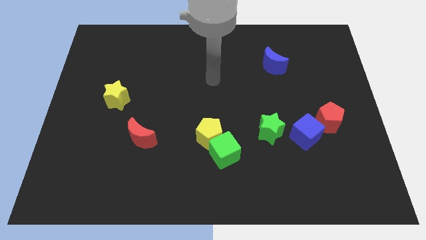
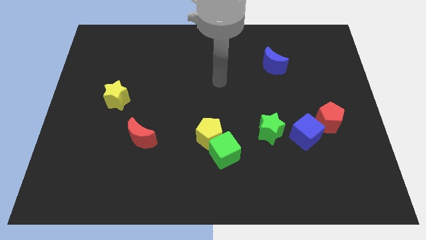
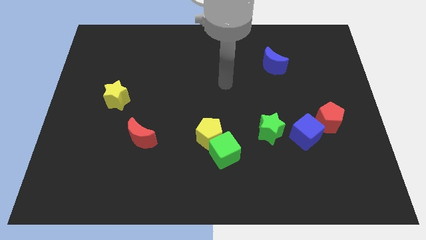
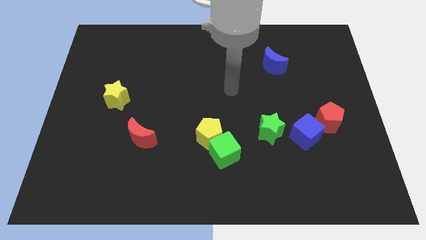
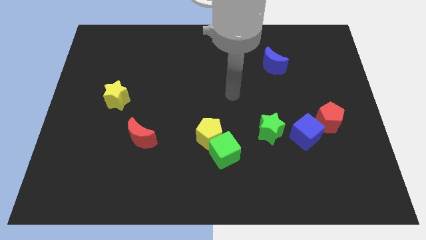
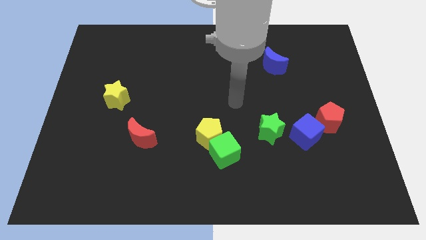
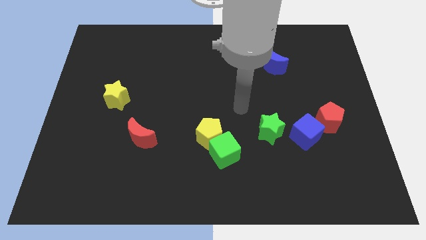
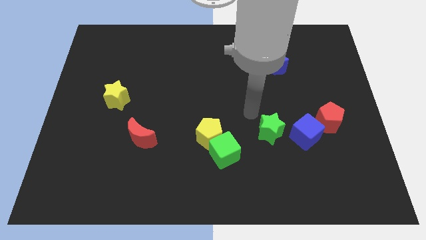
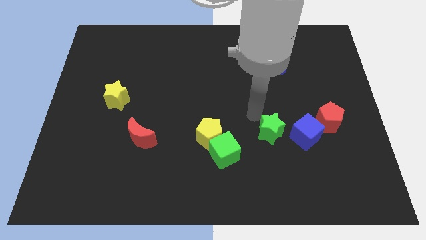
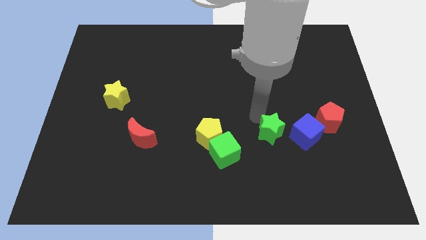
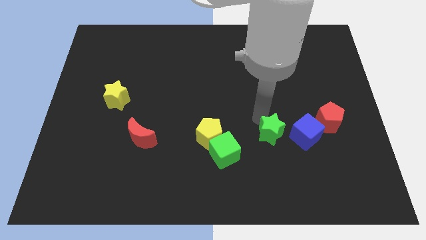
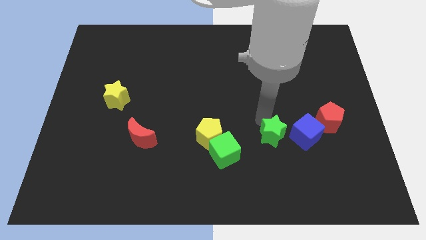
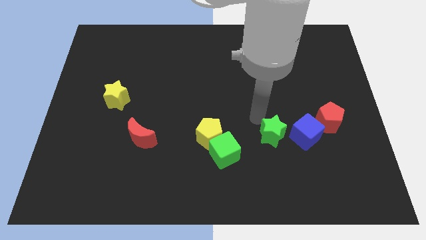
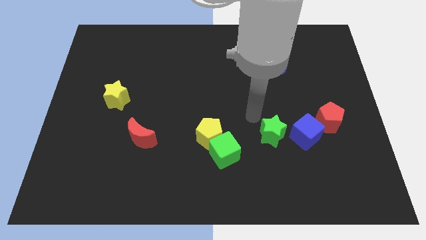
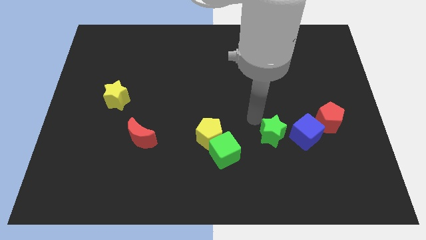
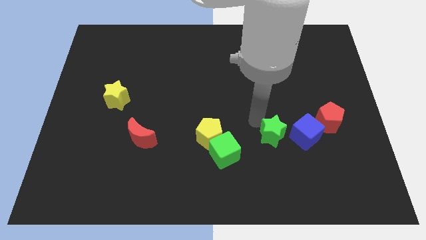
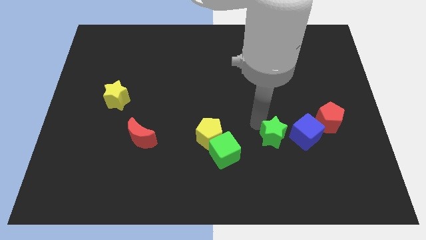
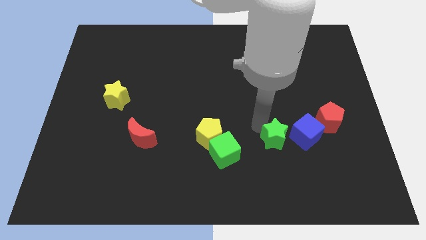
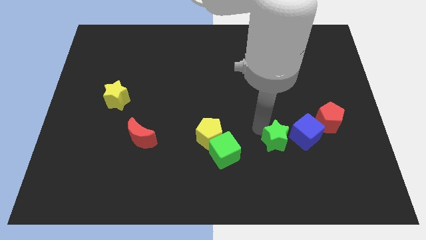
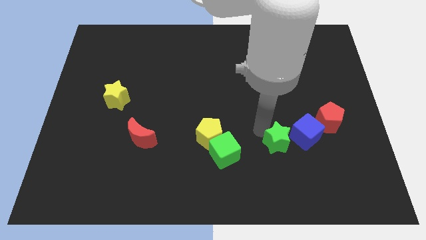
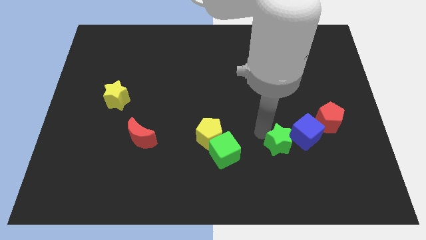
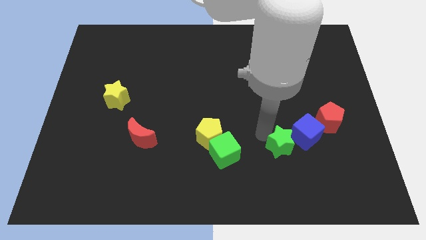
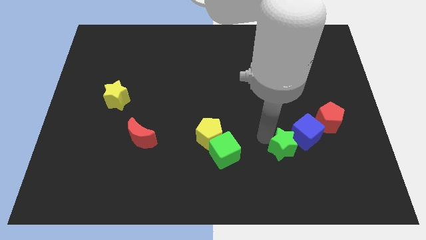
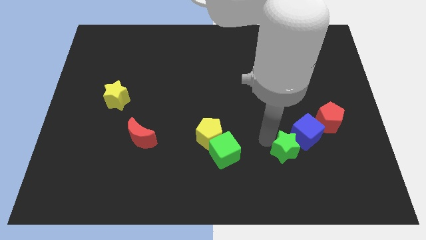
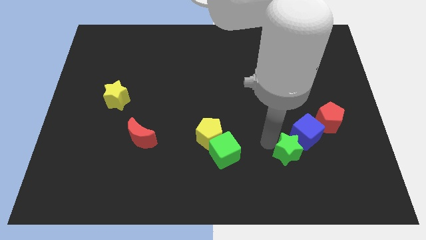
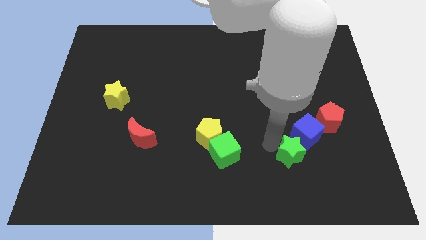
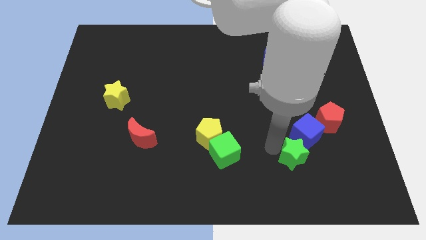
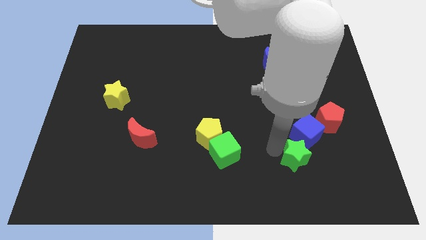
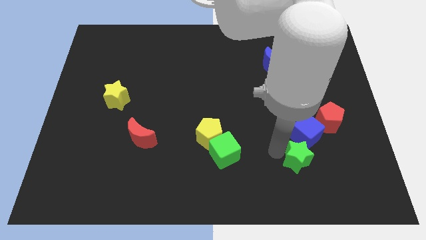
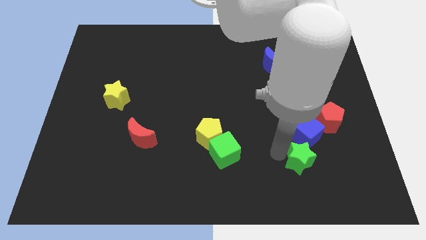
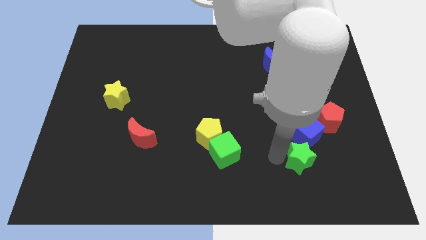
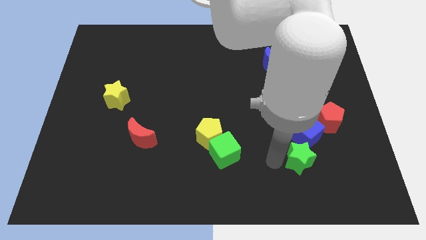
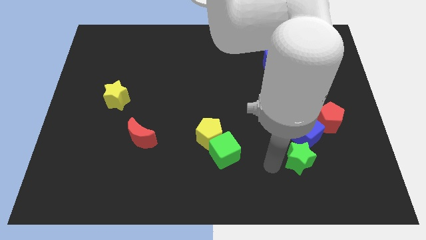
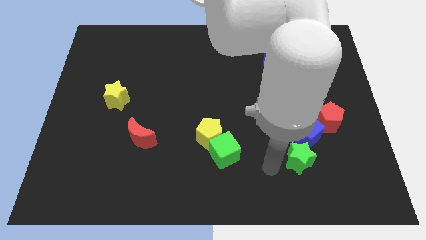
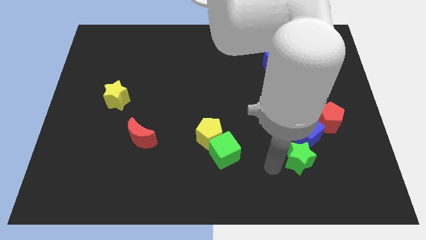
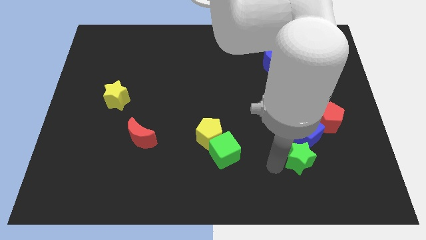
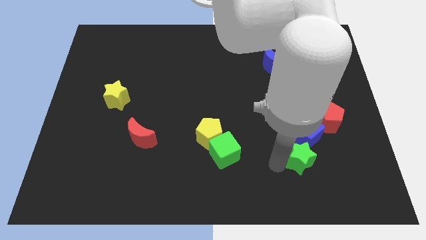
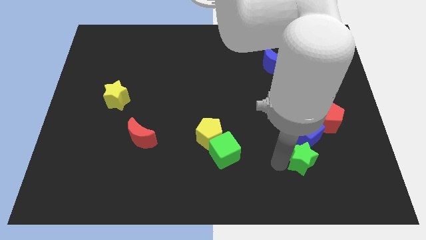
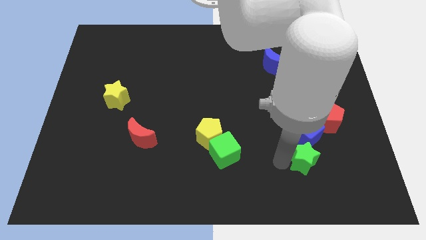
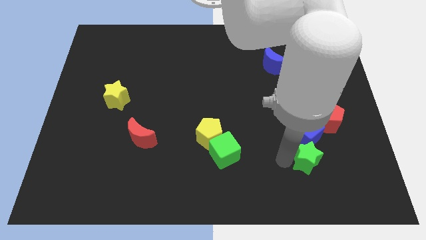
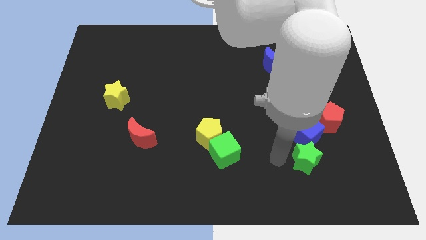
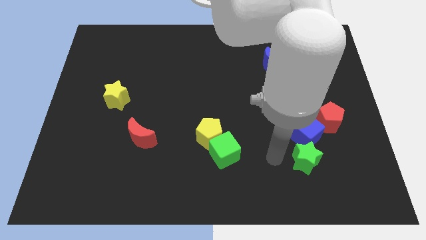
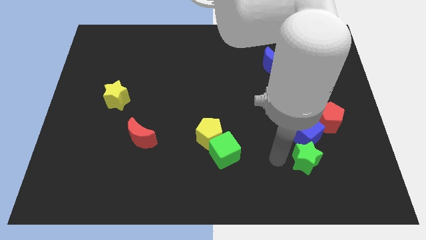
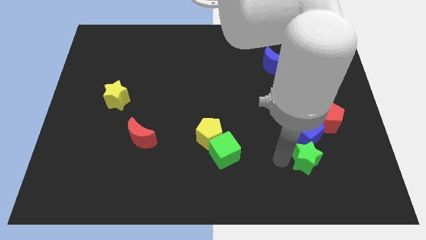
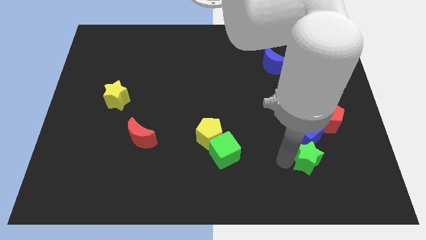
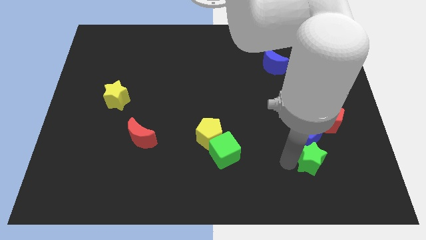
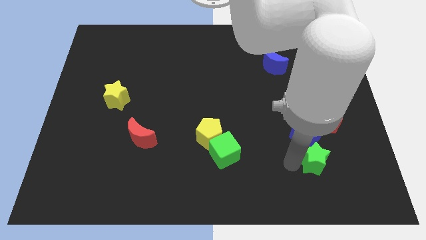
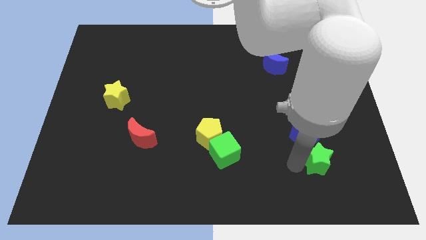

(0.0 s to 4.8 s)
move the green star below the red pentagon

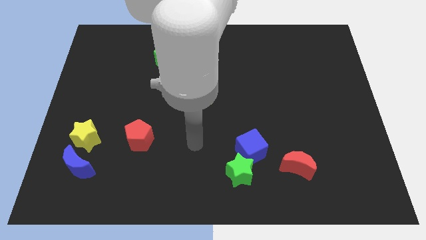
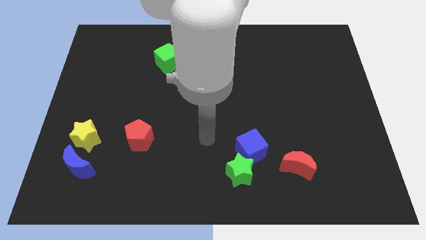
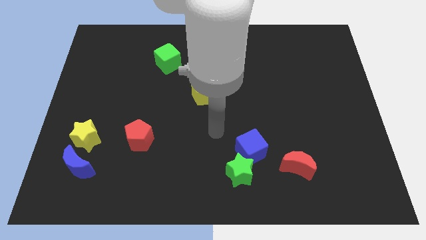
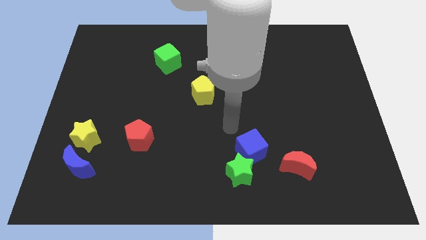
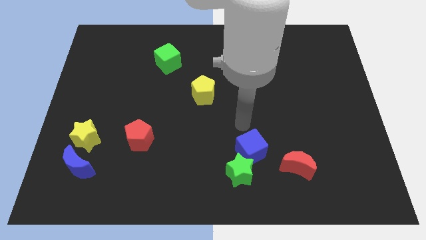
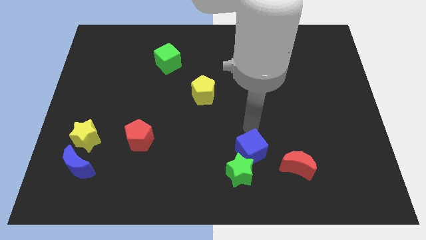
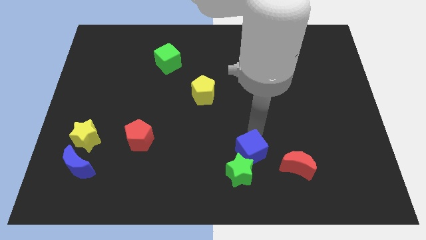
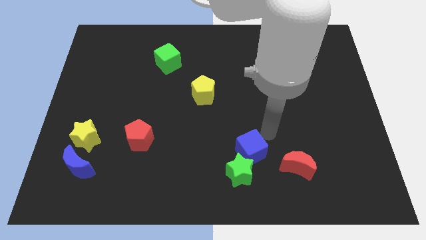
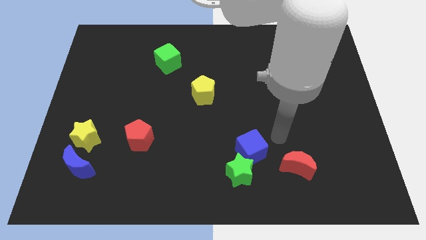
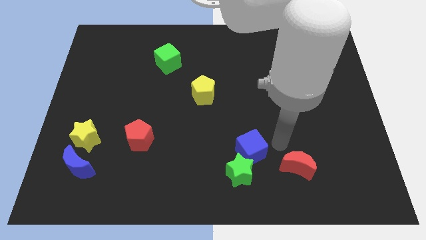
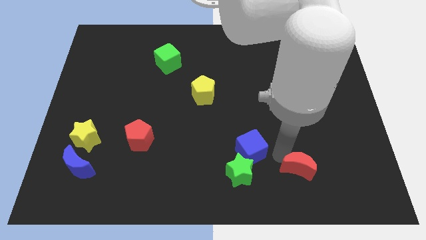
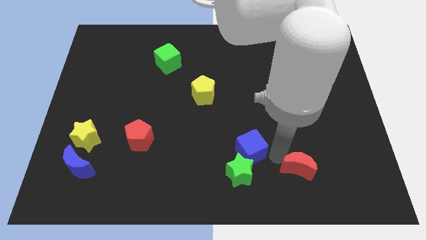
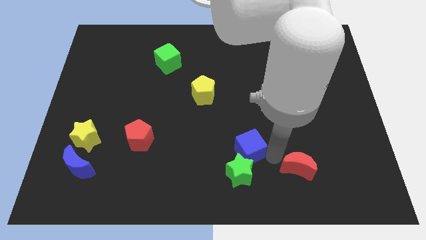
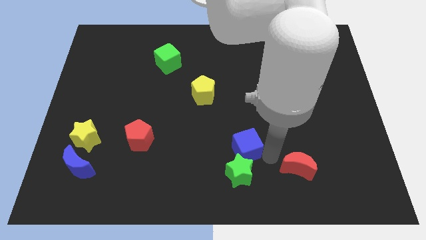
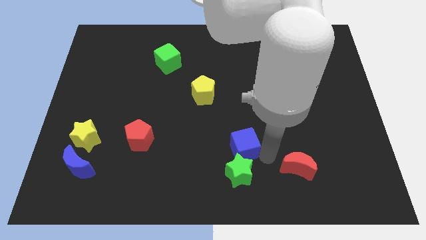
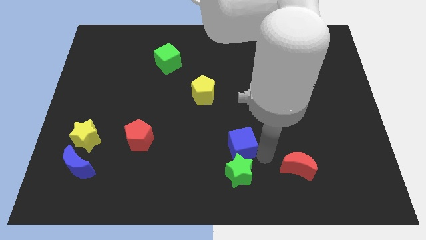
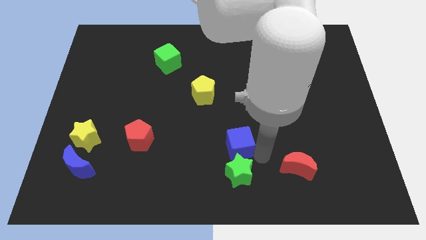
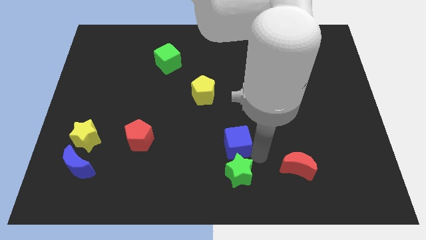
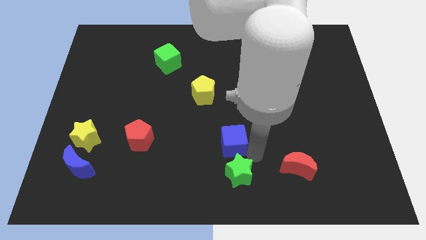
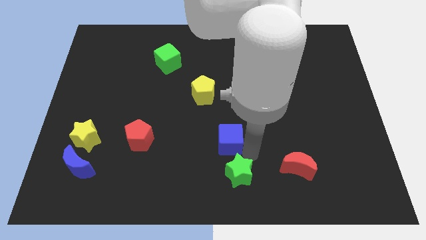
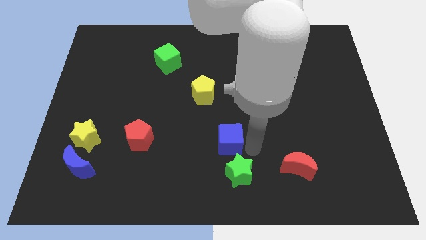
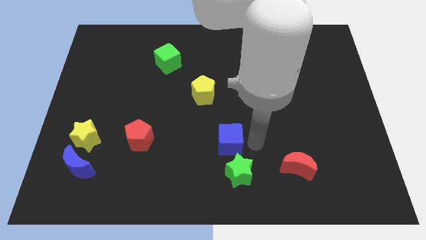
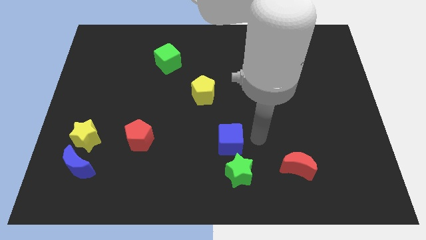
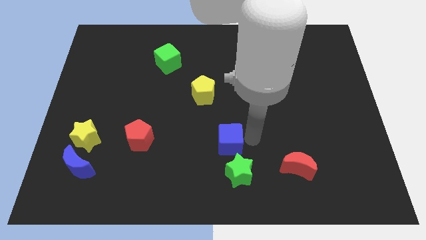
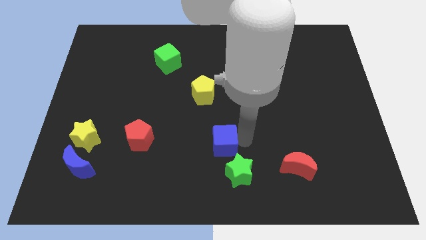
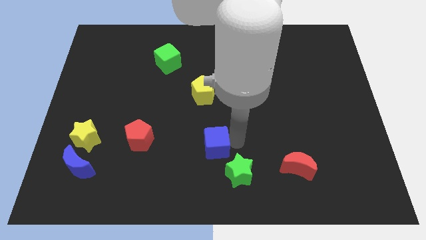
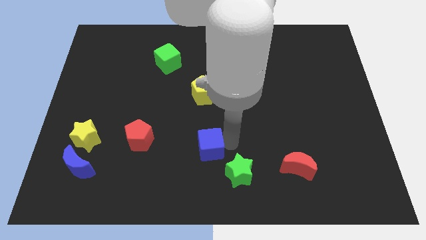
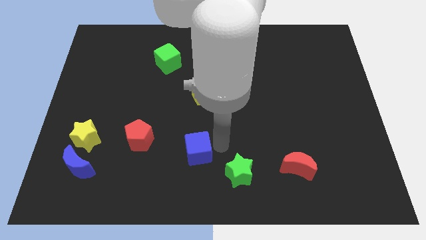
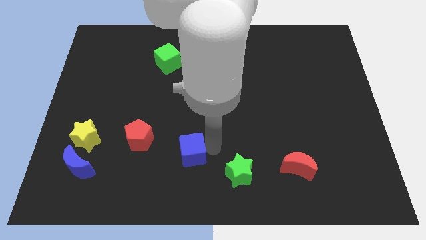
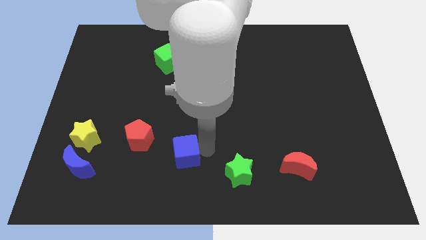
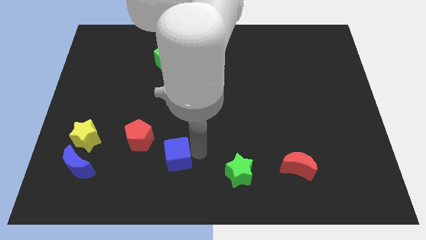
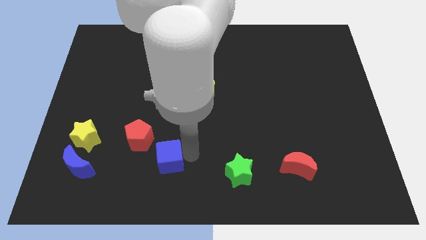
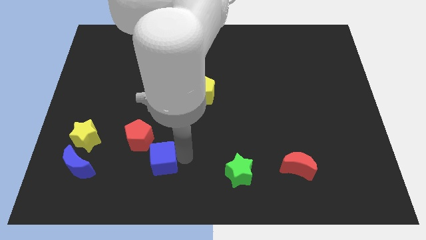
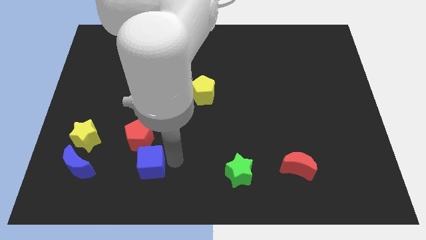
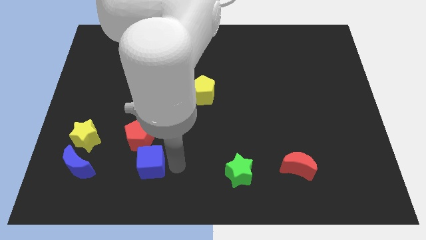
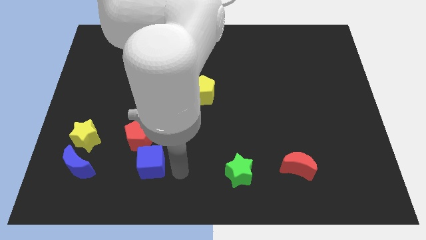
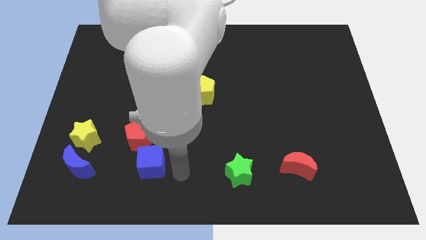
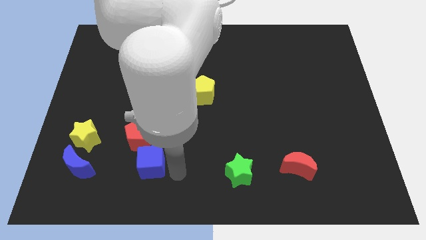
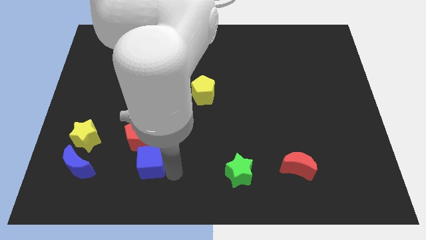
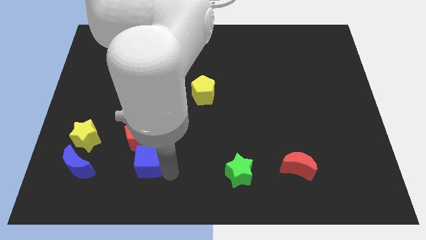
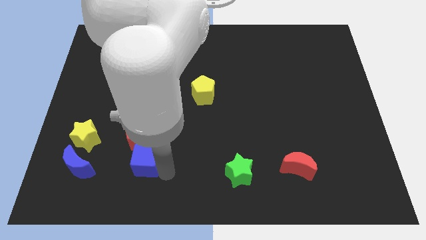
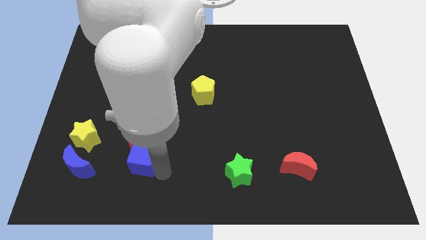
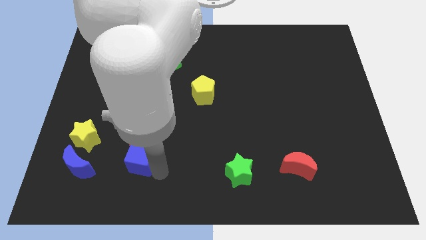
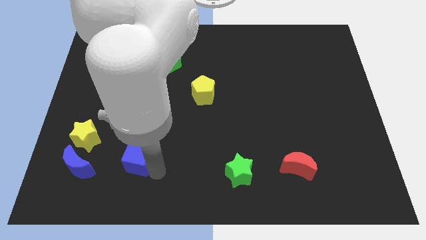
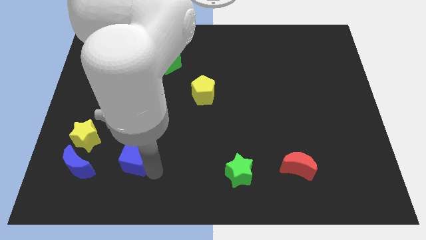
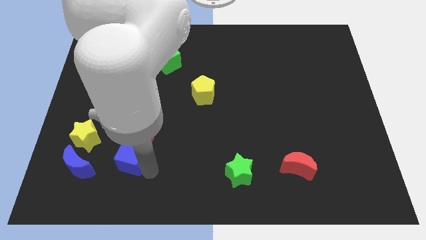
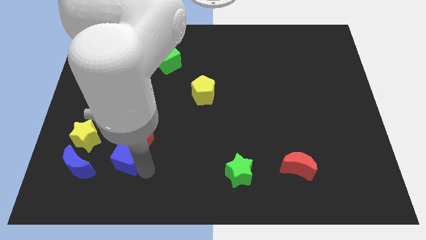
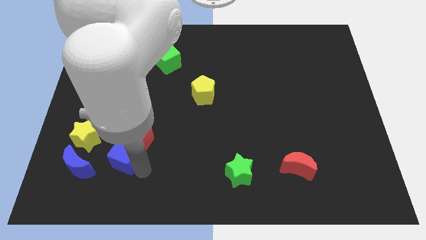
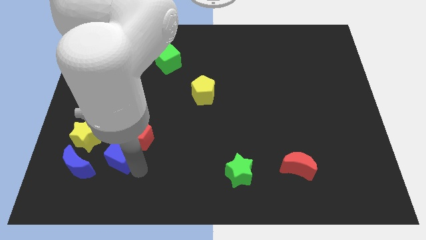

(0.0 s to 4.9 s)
push the blue cube diagonally up and to the right of the blue moon
